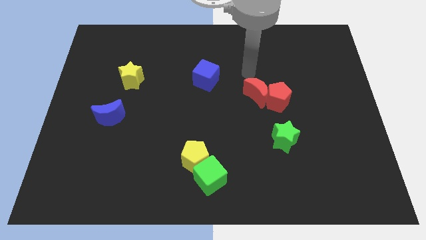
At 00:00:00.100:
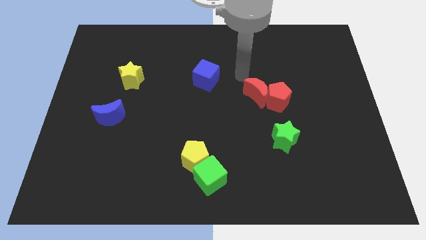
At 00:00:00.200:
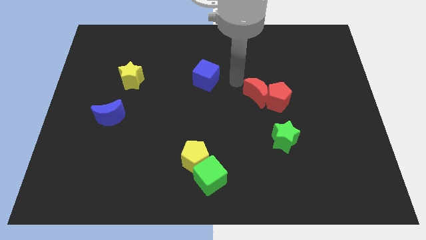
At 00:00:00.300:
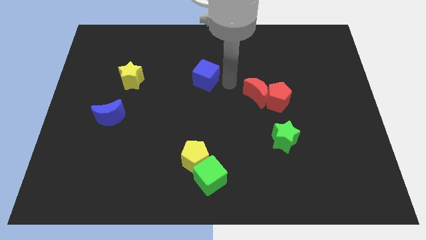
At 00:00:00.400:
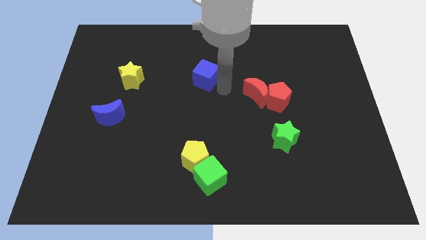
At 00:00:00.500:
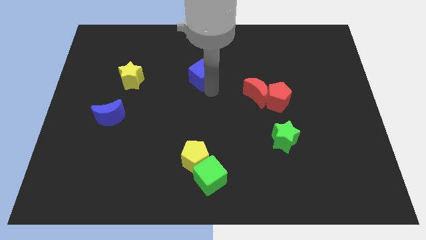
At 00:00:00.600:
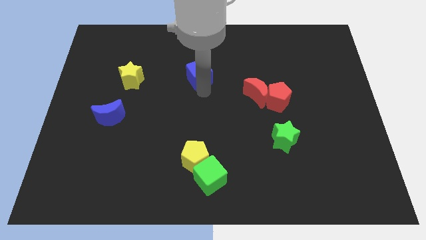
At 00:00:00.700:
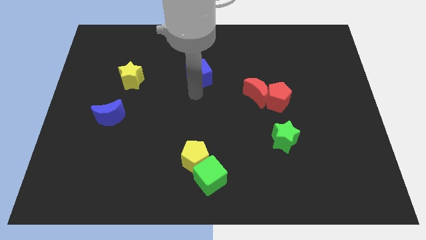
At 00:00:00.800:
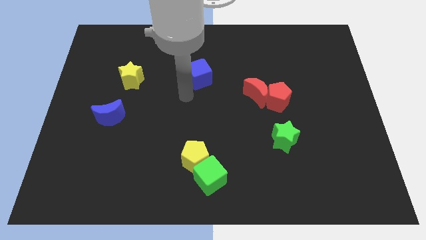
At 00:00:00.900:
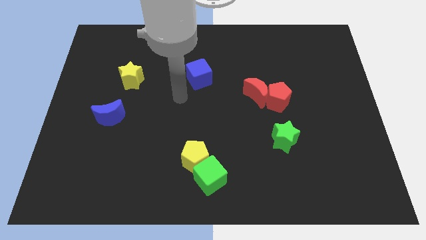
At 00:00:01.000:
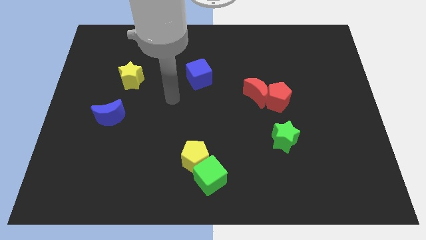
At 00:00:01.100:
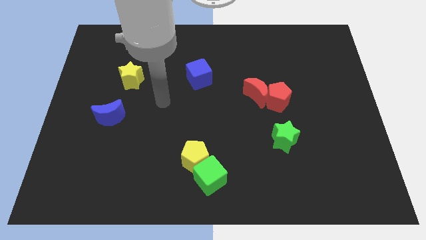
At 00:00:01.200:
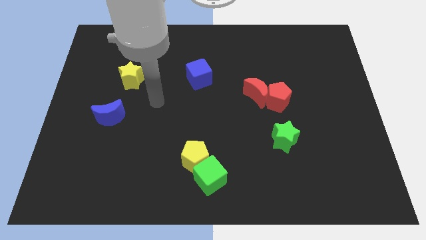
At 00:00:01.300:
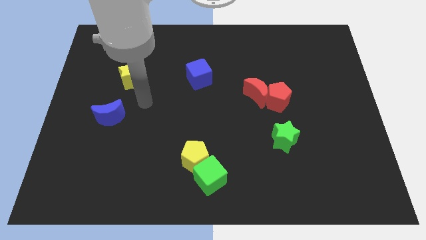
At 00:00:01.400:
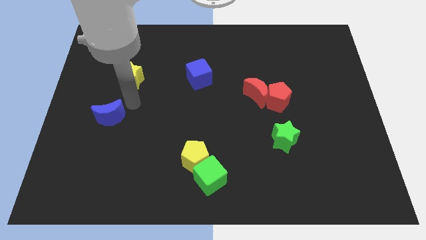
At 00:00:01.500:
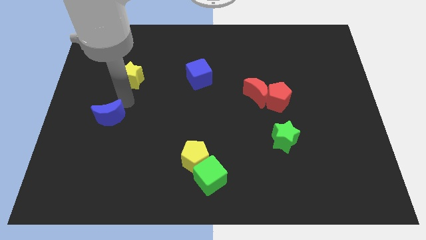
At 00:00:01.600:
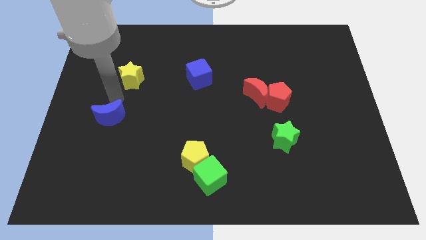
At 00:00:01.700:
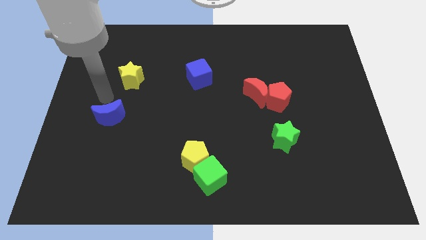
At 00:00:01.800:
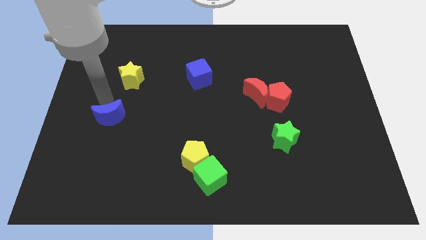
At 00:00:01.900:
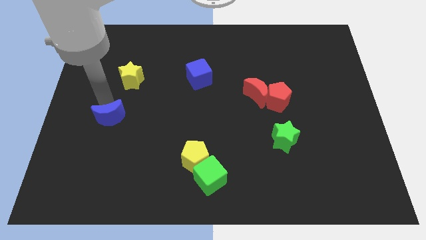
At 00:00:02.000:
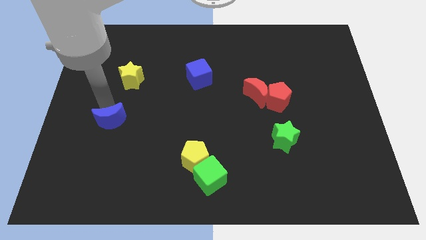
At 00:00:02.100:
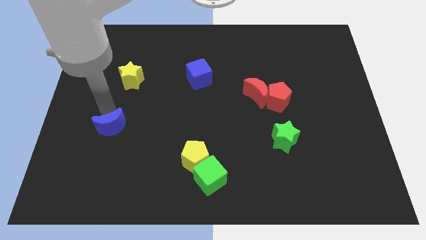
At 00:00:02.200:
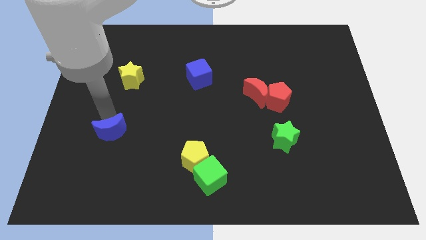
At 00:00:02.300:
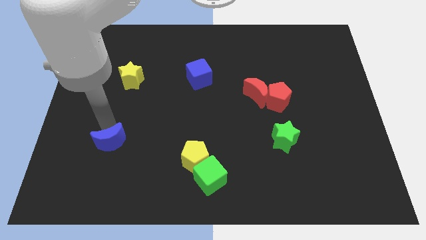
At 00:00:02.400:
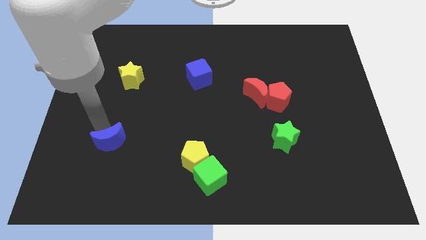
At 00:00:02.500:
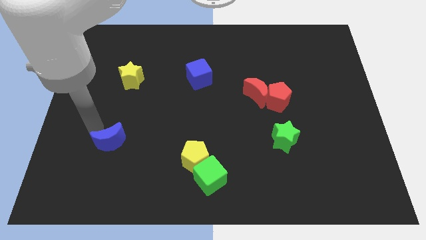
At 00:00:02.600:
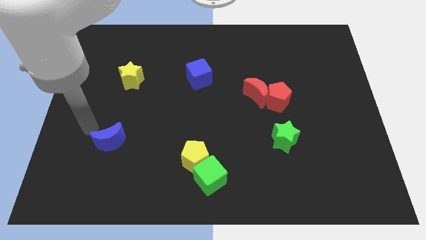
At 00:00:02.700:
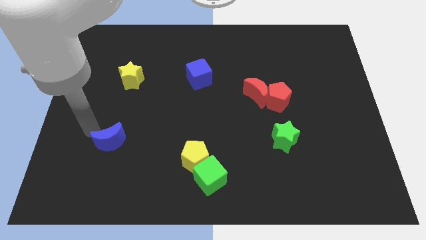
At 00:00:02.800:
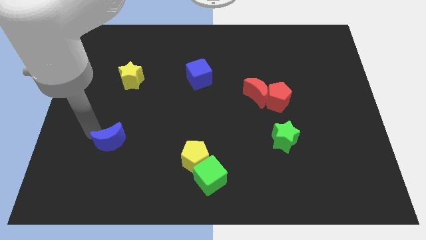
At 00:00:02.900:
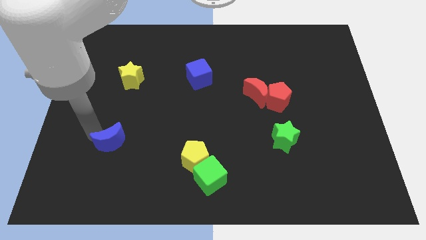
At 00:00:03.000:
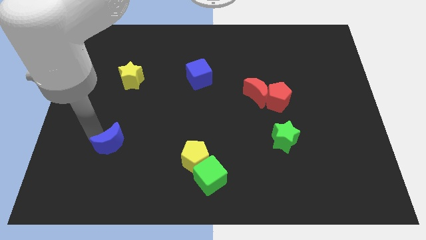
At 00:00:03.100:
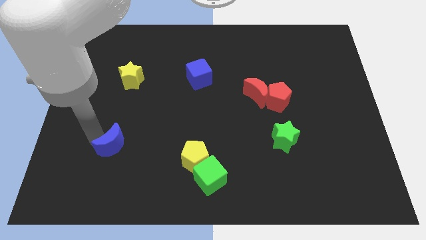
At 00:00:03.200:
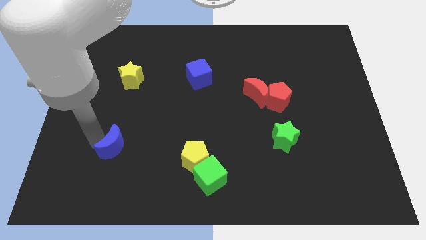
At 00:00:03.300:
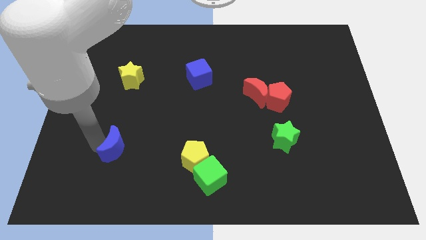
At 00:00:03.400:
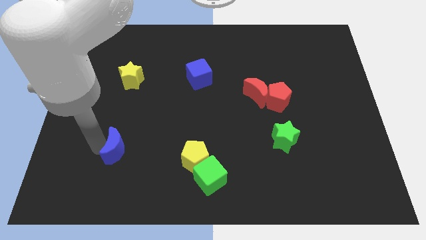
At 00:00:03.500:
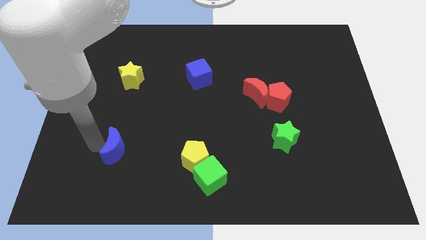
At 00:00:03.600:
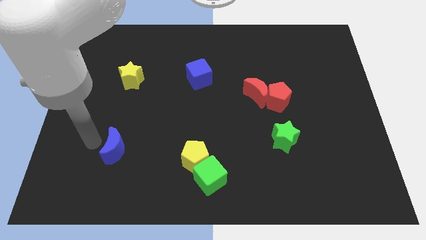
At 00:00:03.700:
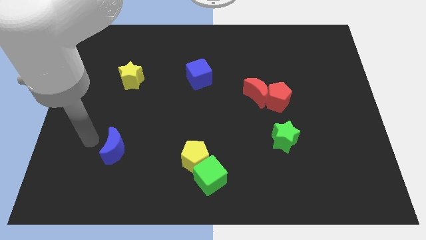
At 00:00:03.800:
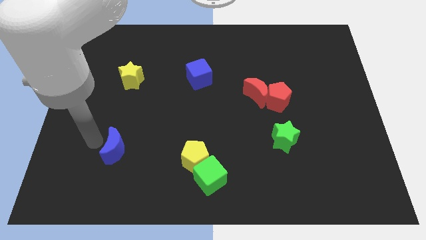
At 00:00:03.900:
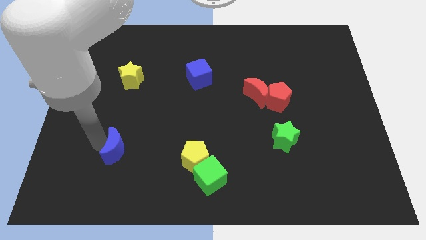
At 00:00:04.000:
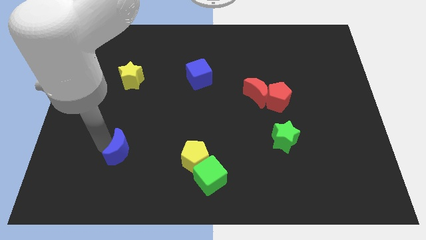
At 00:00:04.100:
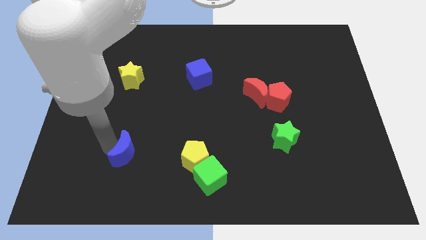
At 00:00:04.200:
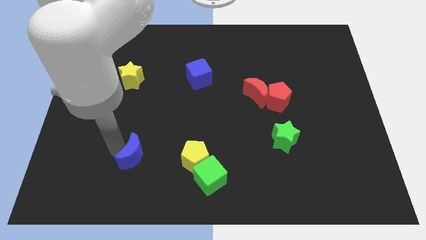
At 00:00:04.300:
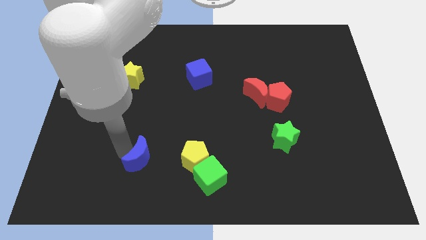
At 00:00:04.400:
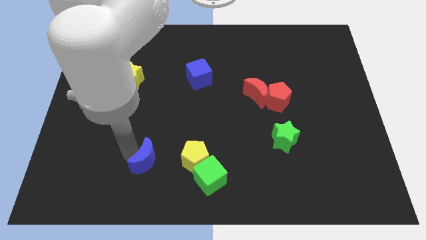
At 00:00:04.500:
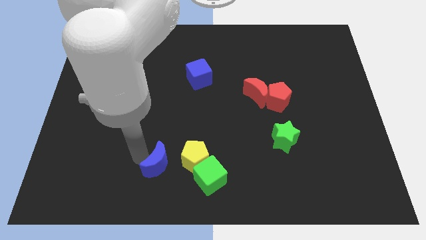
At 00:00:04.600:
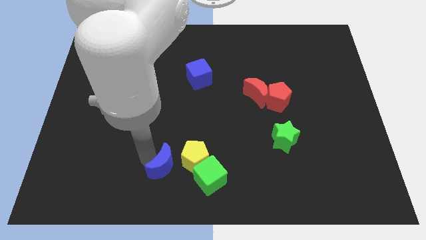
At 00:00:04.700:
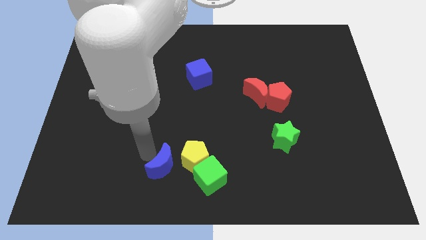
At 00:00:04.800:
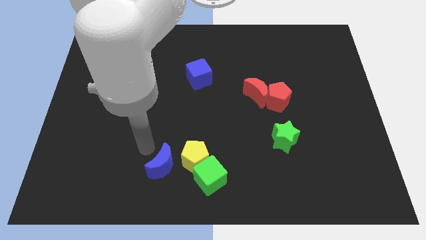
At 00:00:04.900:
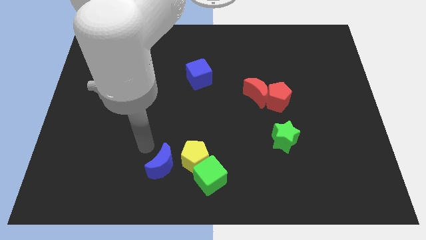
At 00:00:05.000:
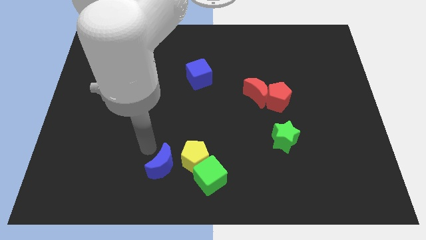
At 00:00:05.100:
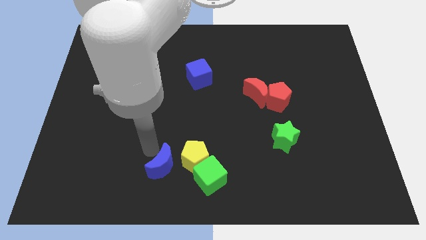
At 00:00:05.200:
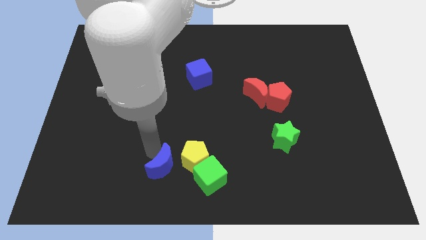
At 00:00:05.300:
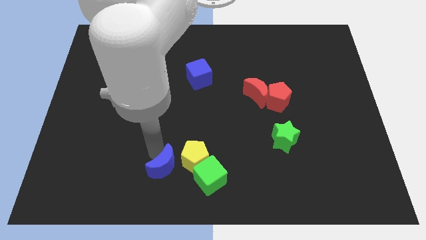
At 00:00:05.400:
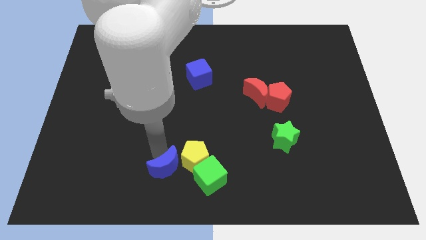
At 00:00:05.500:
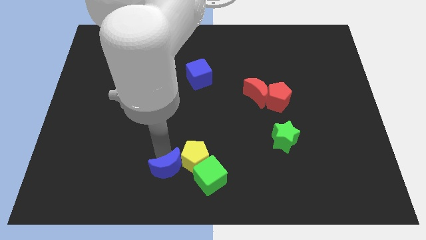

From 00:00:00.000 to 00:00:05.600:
slide the blue moon to the bottom

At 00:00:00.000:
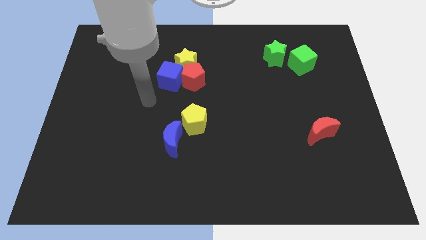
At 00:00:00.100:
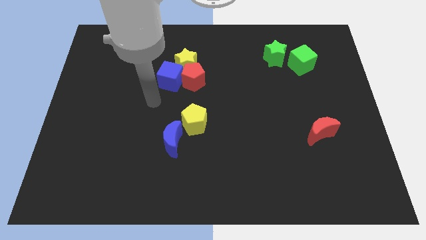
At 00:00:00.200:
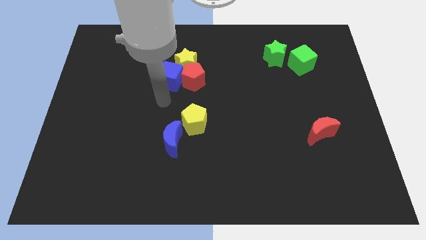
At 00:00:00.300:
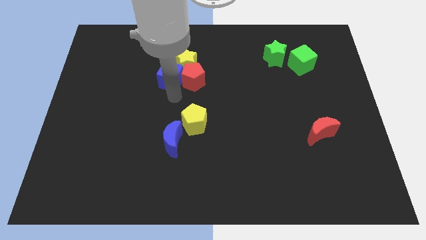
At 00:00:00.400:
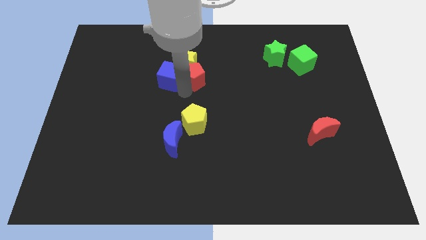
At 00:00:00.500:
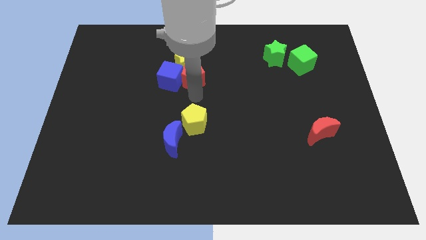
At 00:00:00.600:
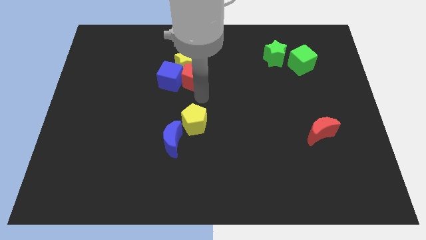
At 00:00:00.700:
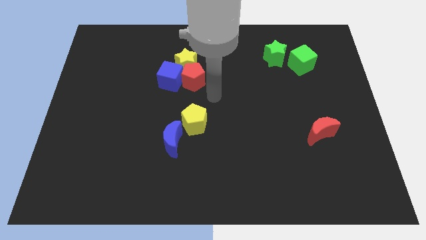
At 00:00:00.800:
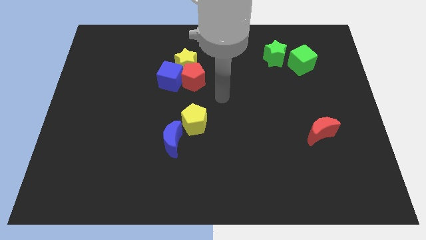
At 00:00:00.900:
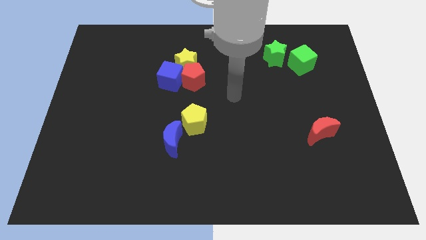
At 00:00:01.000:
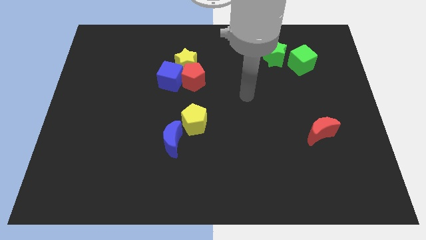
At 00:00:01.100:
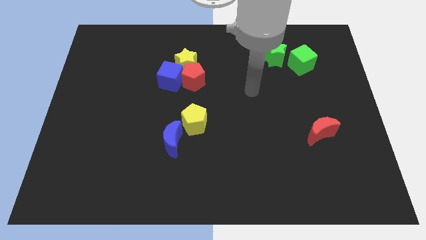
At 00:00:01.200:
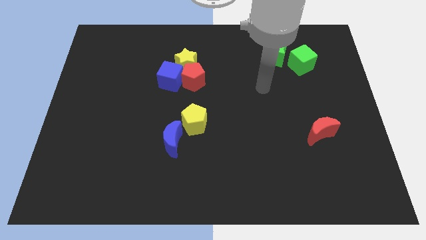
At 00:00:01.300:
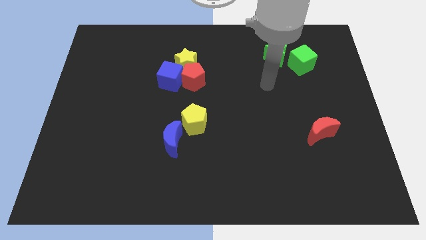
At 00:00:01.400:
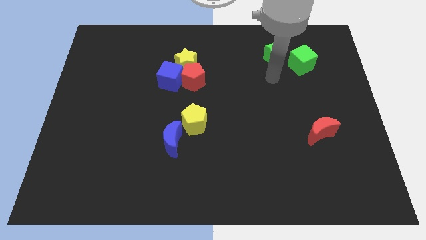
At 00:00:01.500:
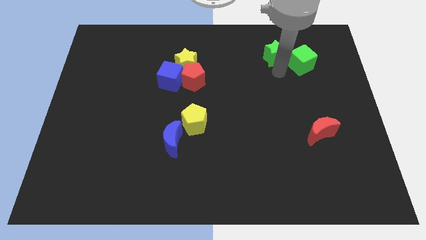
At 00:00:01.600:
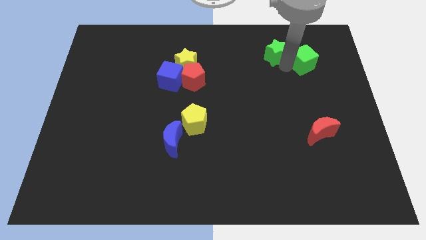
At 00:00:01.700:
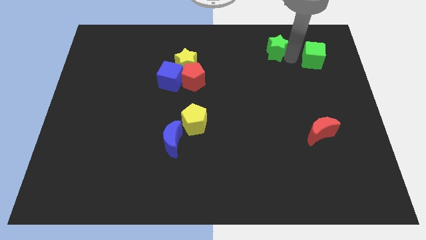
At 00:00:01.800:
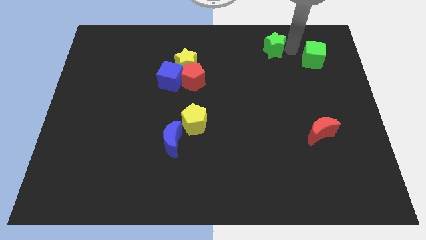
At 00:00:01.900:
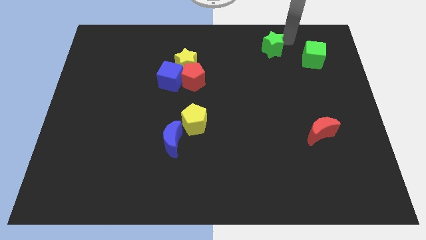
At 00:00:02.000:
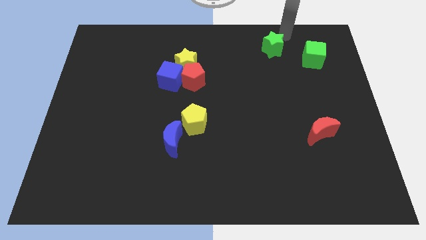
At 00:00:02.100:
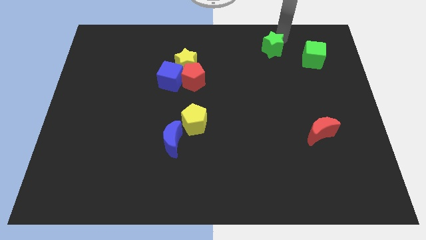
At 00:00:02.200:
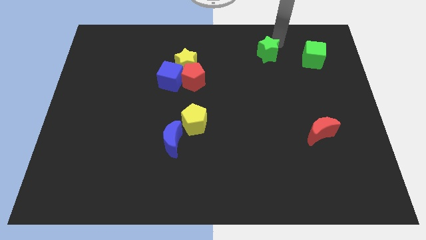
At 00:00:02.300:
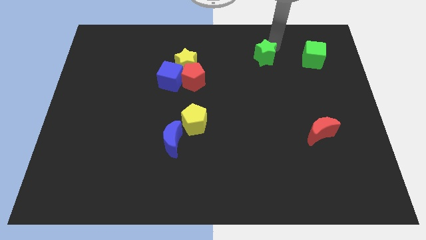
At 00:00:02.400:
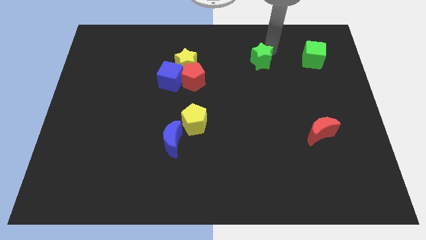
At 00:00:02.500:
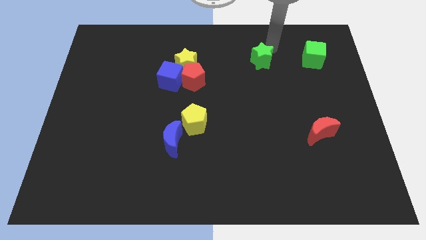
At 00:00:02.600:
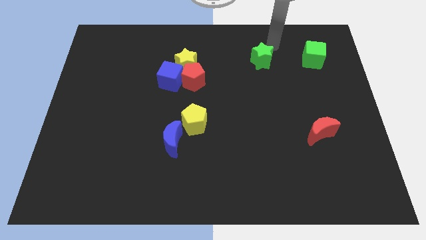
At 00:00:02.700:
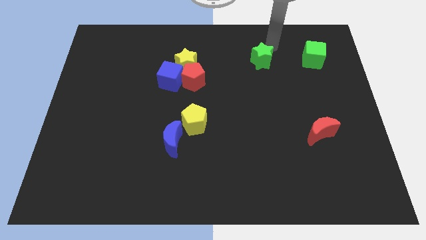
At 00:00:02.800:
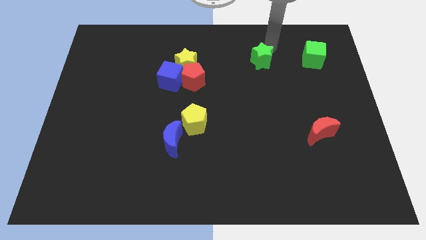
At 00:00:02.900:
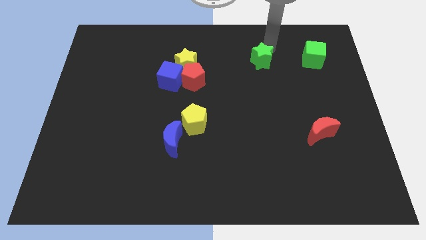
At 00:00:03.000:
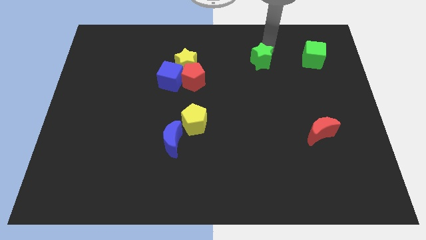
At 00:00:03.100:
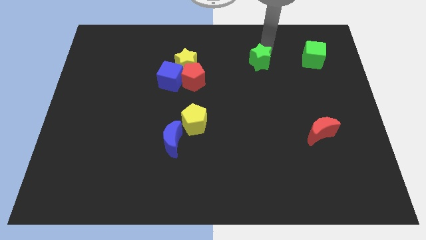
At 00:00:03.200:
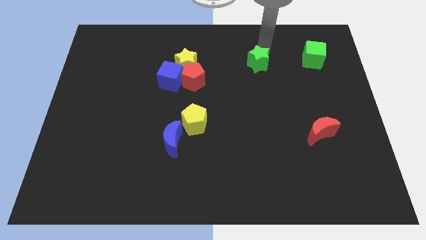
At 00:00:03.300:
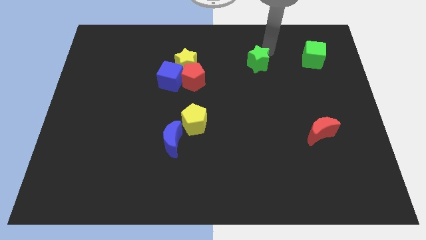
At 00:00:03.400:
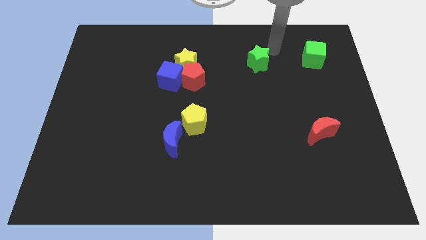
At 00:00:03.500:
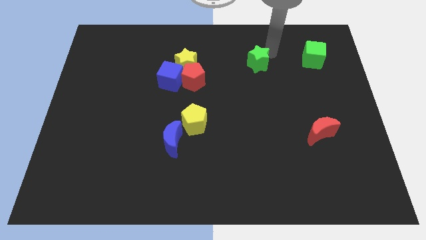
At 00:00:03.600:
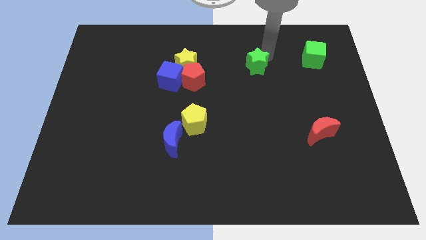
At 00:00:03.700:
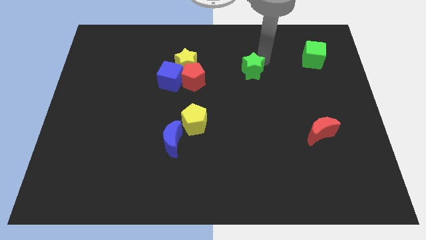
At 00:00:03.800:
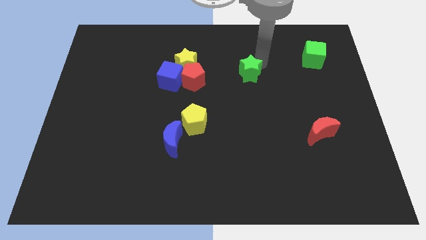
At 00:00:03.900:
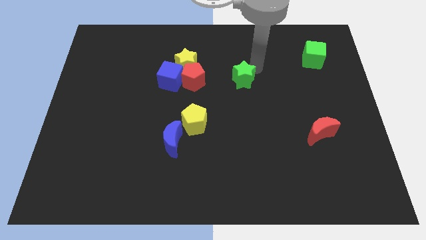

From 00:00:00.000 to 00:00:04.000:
push the green star to the middle
